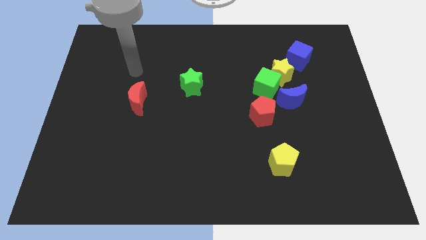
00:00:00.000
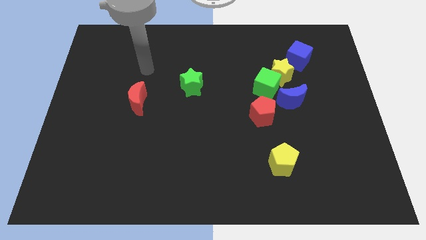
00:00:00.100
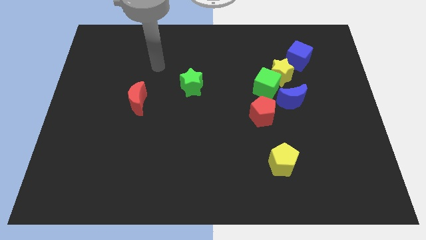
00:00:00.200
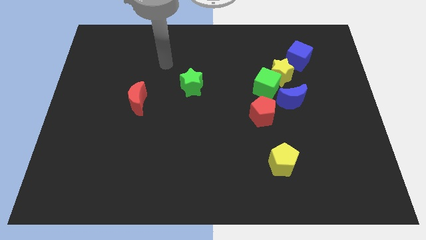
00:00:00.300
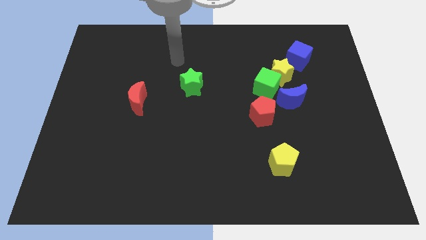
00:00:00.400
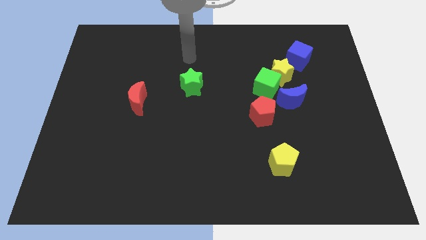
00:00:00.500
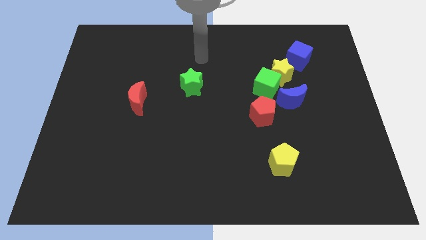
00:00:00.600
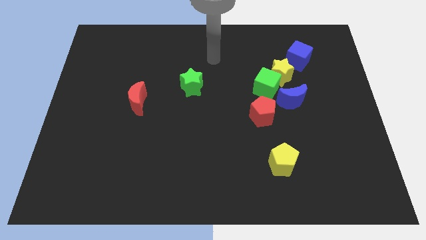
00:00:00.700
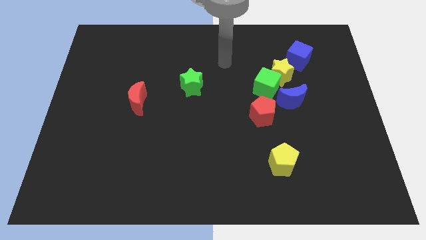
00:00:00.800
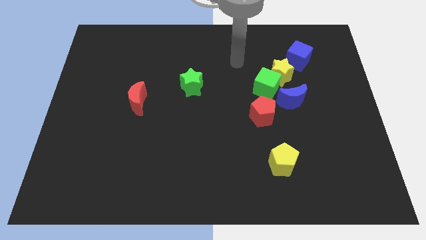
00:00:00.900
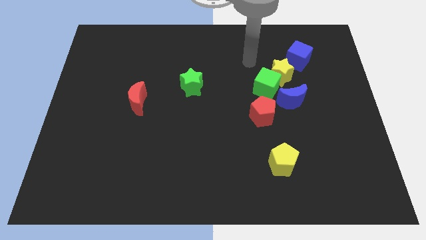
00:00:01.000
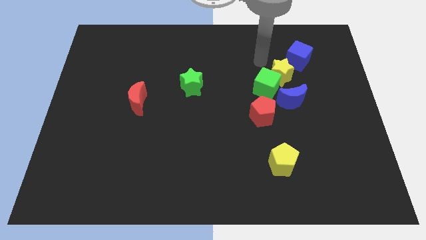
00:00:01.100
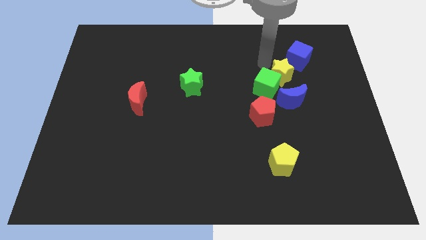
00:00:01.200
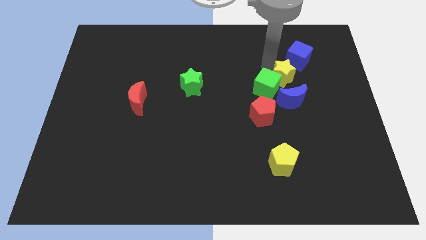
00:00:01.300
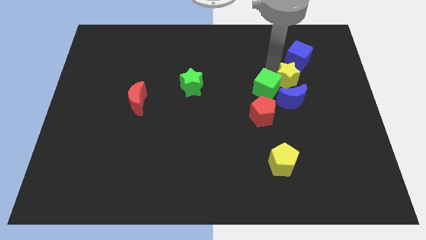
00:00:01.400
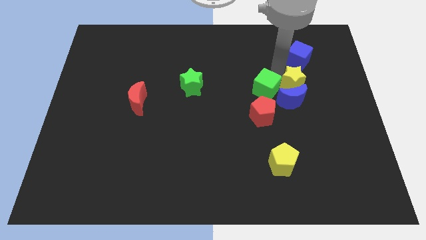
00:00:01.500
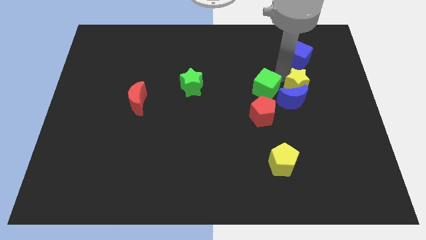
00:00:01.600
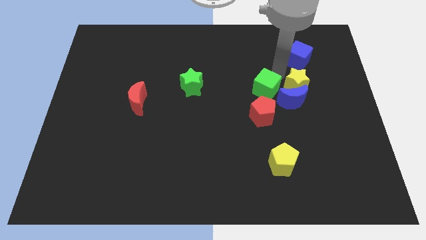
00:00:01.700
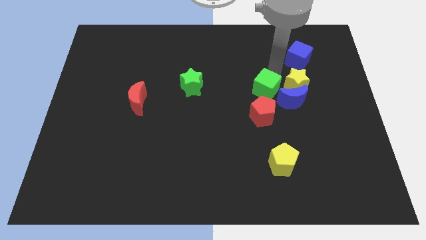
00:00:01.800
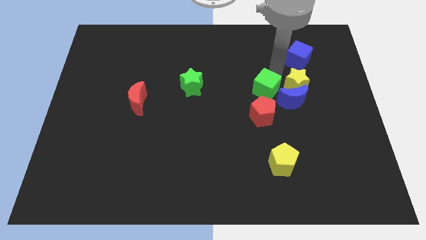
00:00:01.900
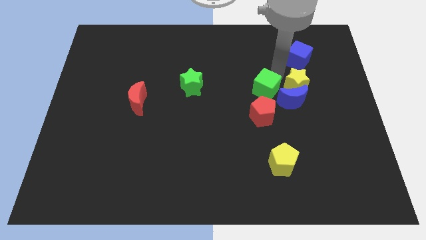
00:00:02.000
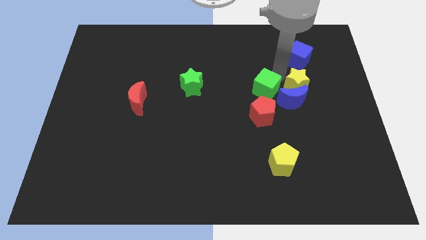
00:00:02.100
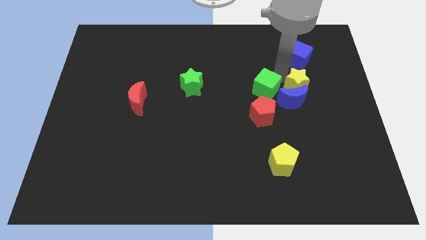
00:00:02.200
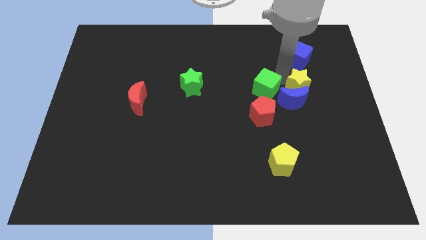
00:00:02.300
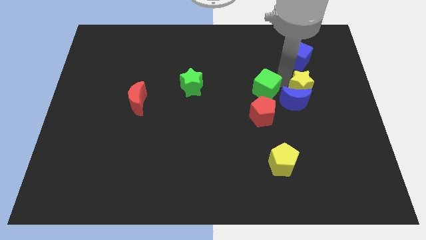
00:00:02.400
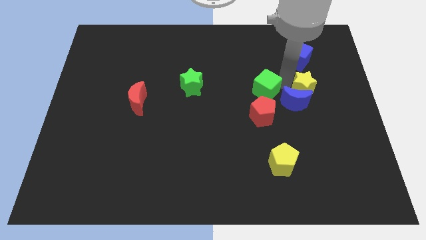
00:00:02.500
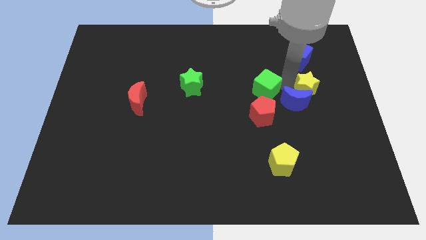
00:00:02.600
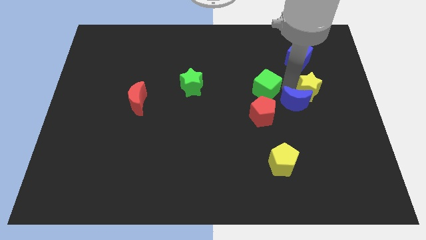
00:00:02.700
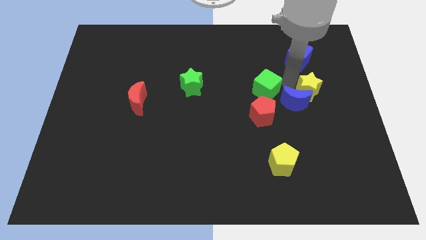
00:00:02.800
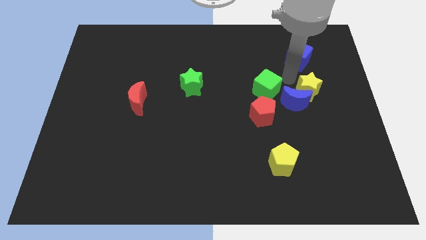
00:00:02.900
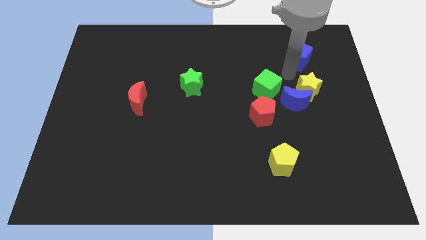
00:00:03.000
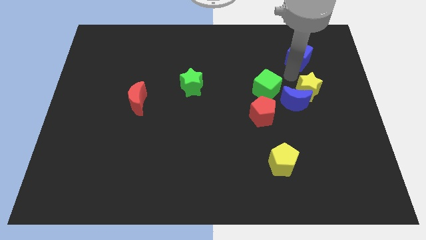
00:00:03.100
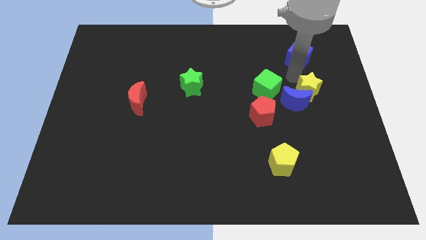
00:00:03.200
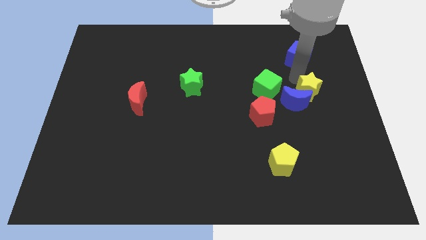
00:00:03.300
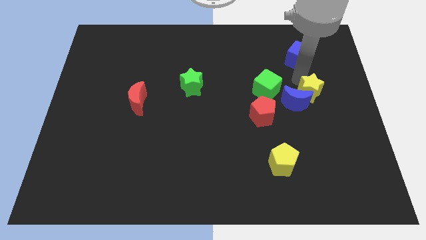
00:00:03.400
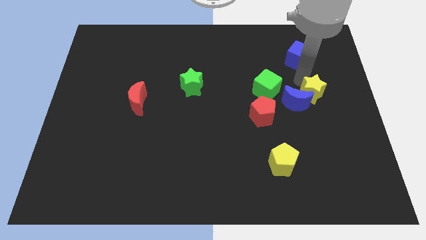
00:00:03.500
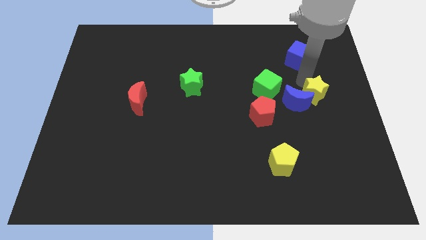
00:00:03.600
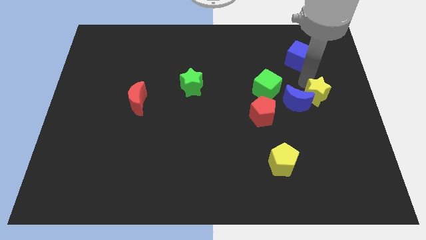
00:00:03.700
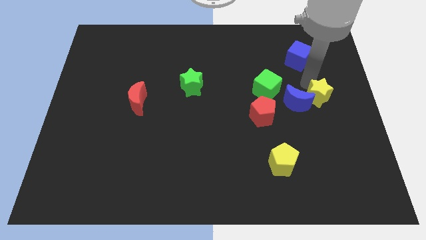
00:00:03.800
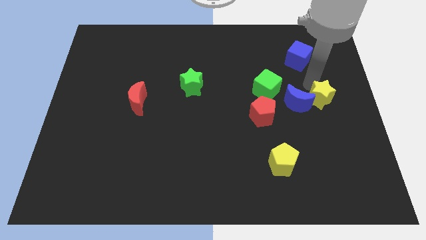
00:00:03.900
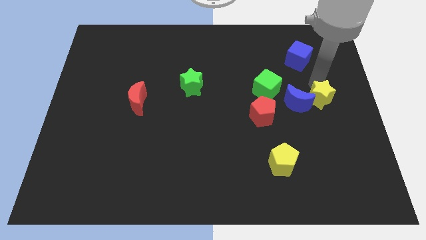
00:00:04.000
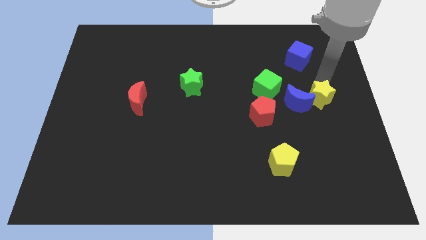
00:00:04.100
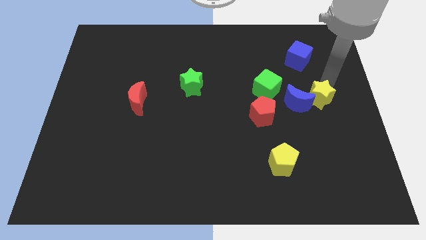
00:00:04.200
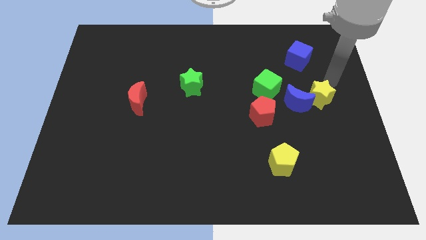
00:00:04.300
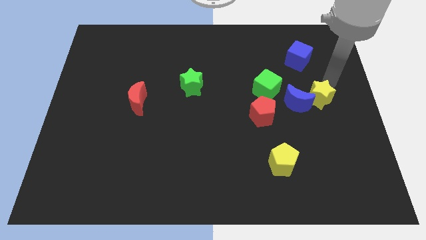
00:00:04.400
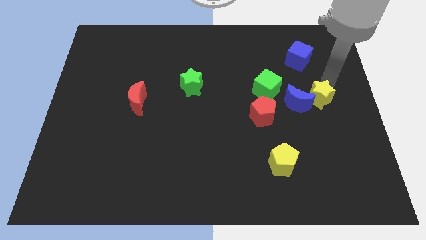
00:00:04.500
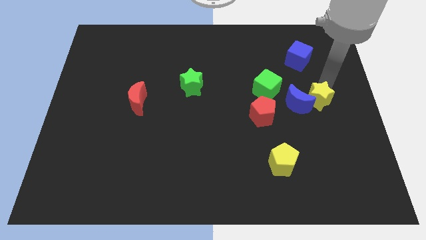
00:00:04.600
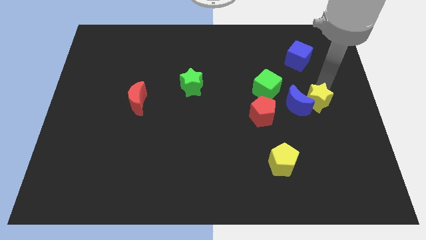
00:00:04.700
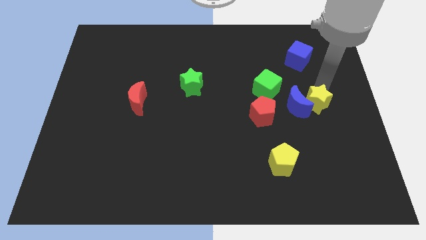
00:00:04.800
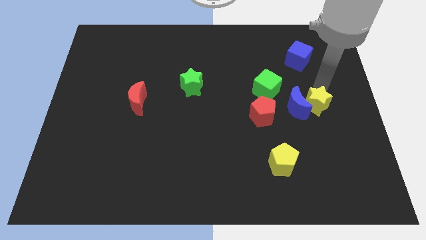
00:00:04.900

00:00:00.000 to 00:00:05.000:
slightly move the yellow star downwards

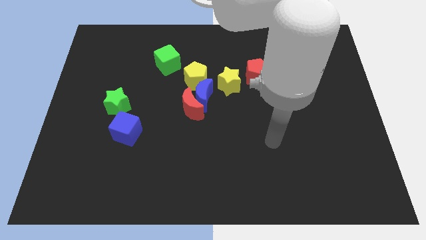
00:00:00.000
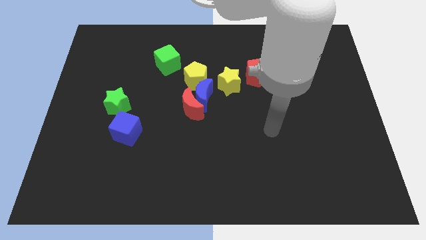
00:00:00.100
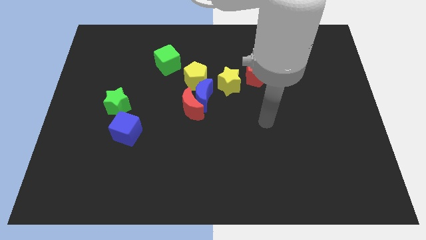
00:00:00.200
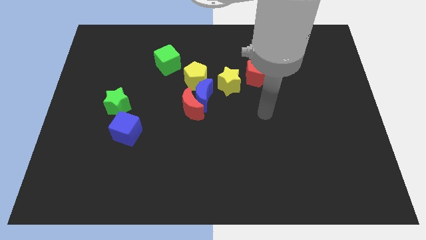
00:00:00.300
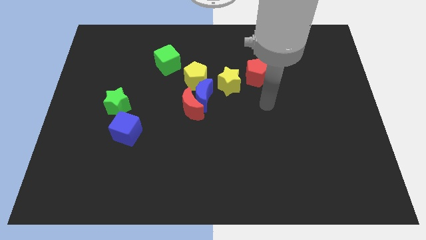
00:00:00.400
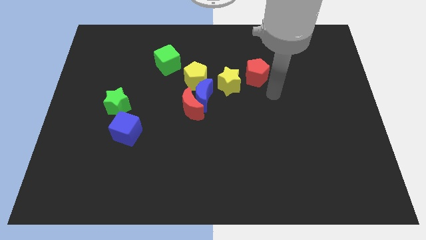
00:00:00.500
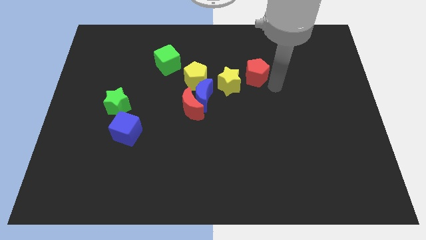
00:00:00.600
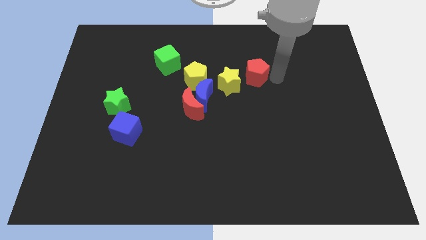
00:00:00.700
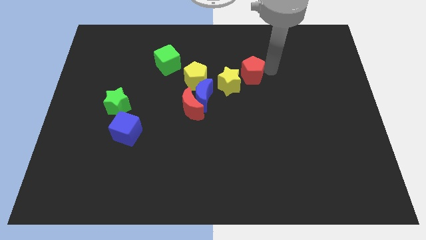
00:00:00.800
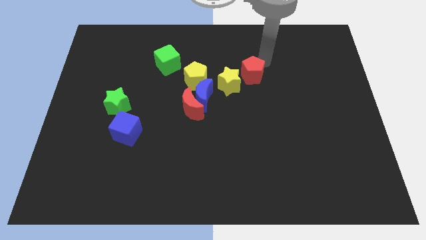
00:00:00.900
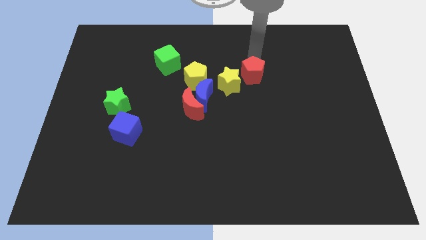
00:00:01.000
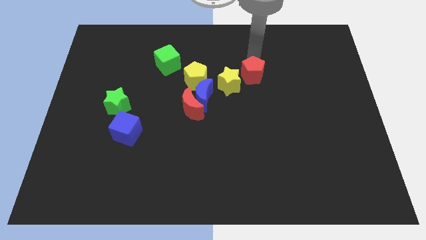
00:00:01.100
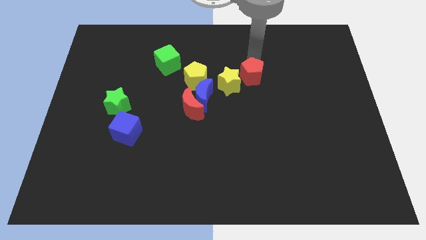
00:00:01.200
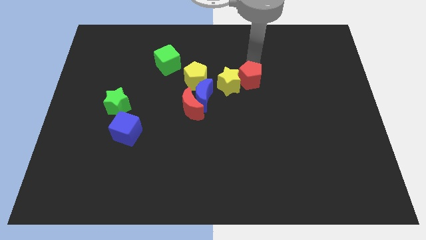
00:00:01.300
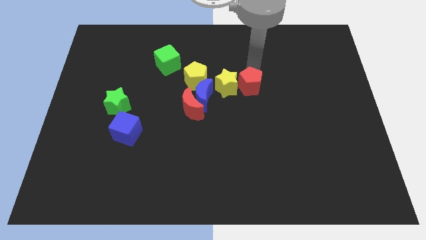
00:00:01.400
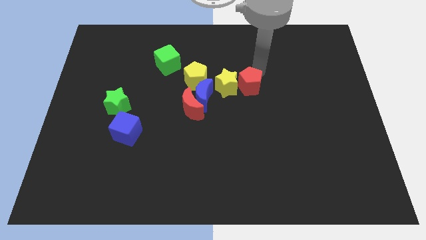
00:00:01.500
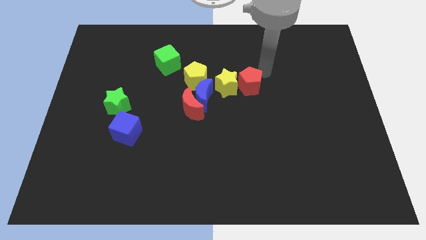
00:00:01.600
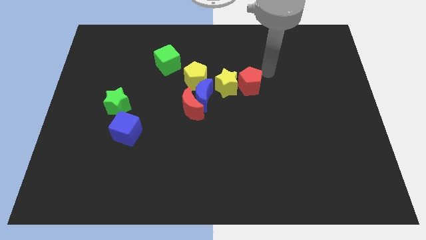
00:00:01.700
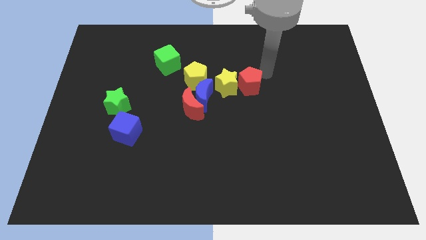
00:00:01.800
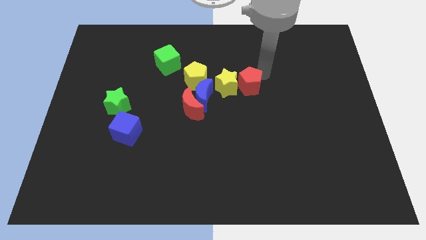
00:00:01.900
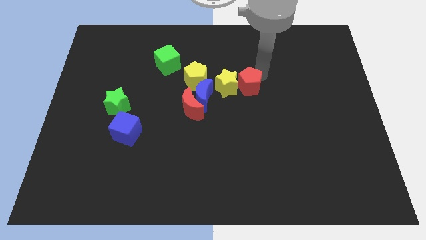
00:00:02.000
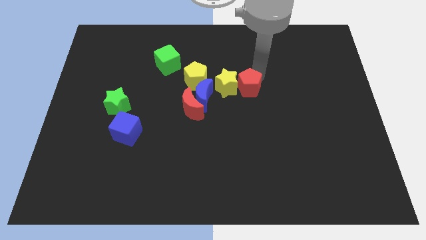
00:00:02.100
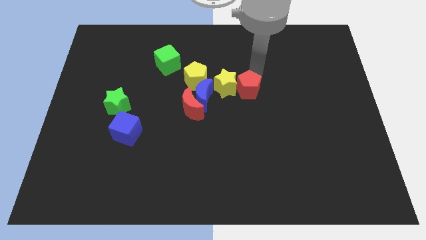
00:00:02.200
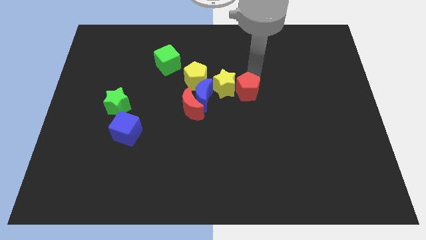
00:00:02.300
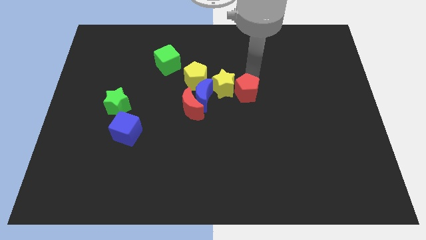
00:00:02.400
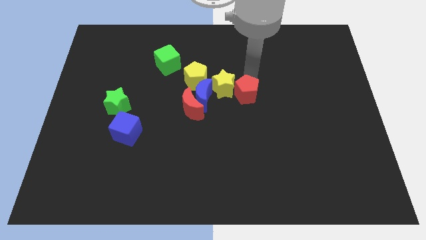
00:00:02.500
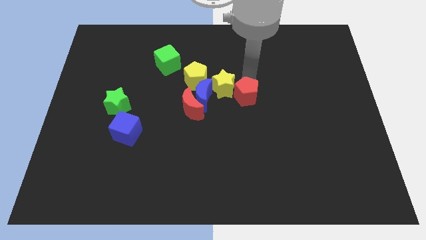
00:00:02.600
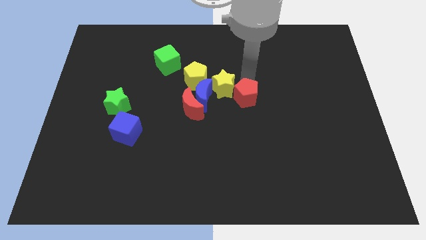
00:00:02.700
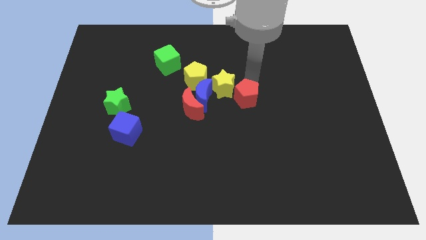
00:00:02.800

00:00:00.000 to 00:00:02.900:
push the red pentagon slightly diagonally down and left

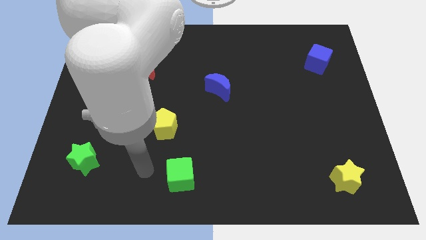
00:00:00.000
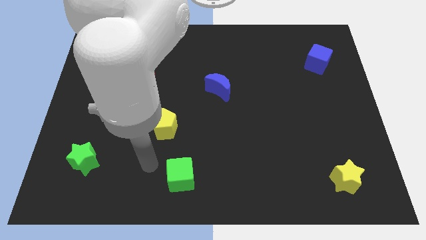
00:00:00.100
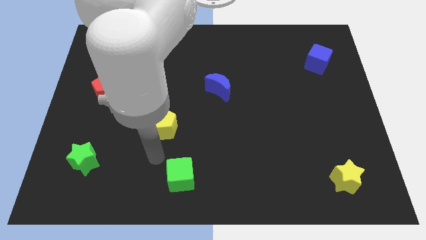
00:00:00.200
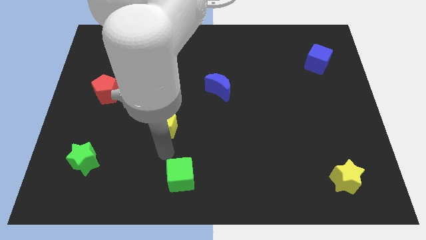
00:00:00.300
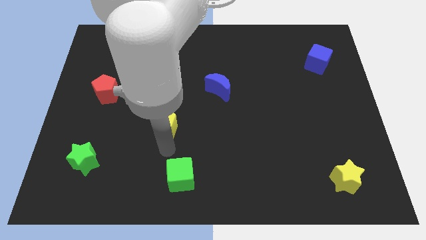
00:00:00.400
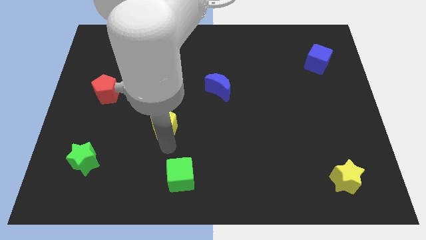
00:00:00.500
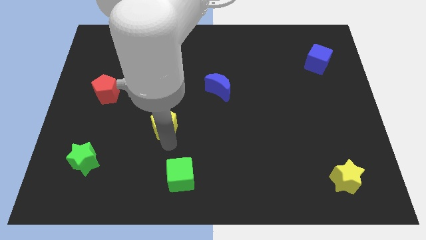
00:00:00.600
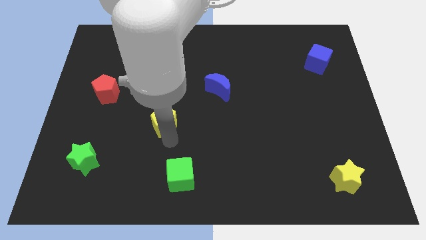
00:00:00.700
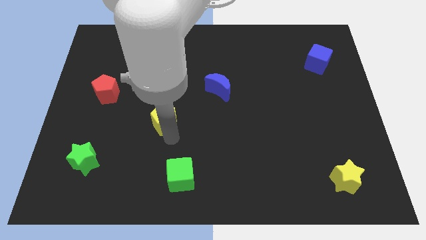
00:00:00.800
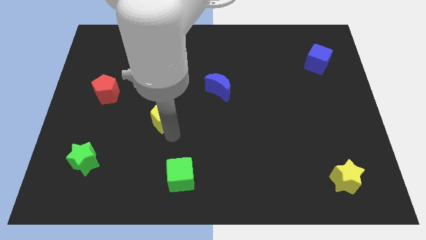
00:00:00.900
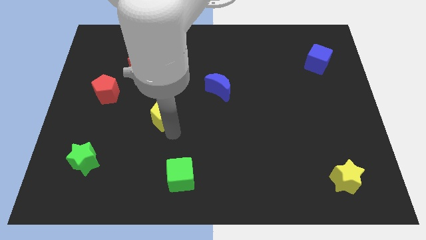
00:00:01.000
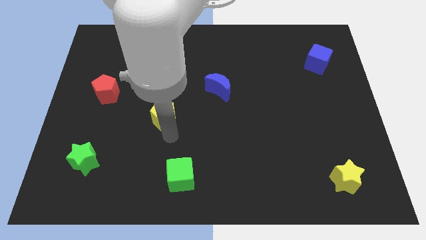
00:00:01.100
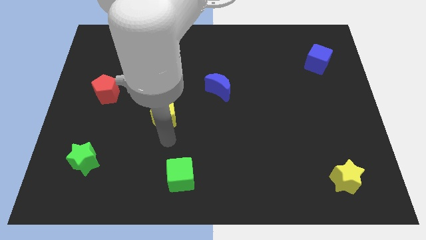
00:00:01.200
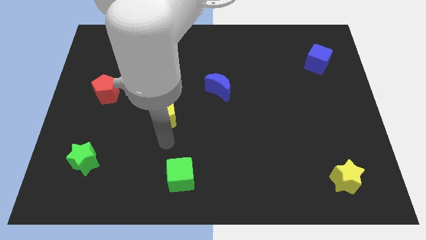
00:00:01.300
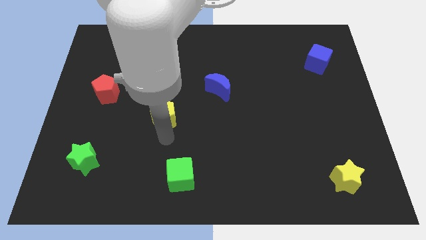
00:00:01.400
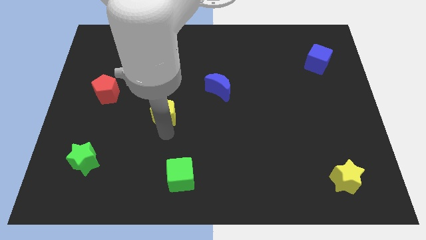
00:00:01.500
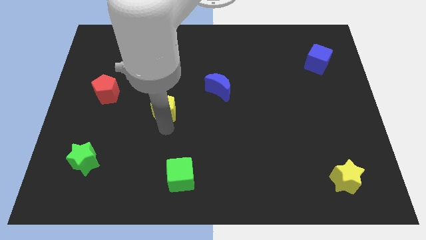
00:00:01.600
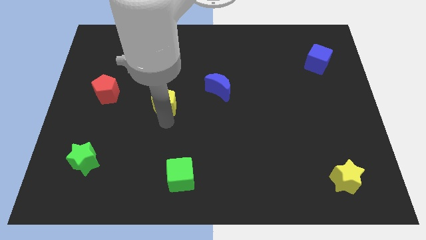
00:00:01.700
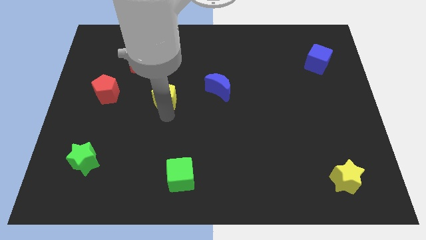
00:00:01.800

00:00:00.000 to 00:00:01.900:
slightly move the yellow pentagon upwards
